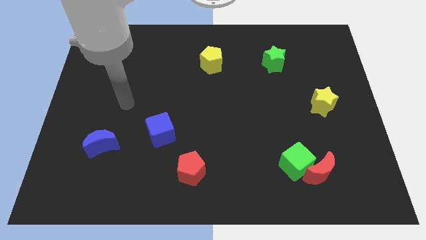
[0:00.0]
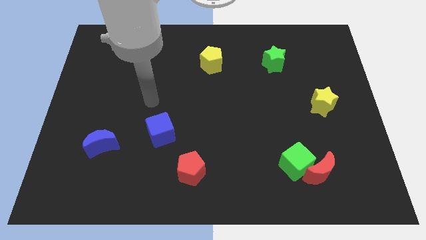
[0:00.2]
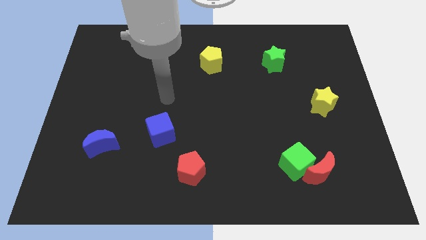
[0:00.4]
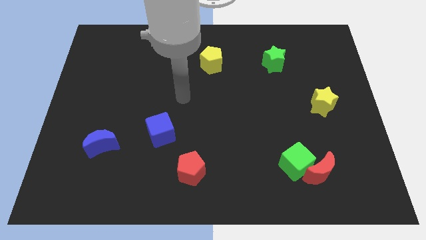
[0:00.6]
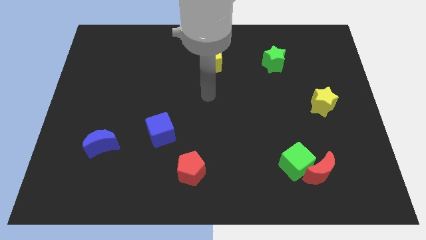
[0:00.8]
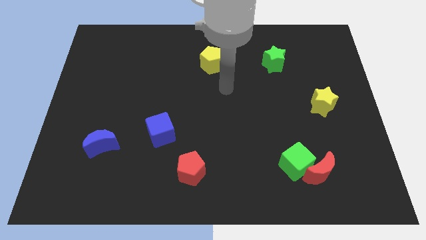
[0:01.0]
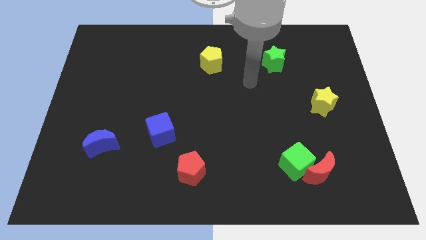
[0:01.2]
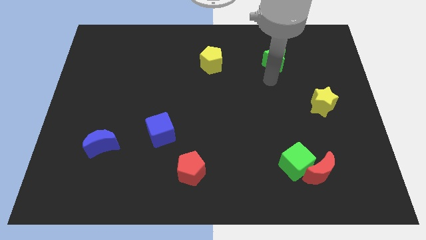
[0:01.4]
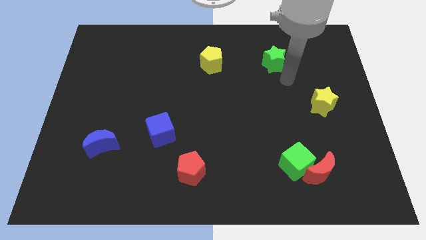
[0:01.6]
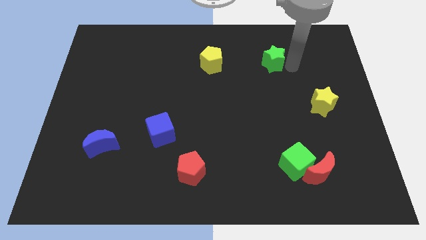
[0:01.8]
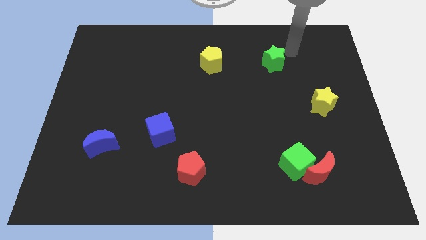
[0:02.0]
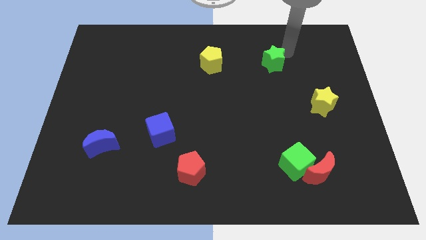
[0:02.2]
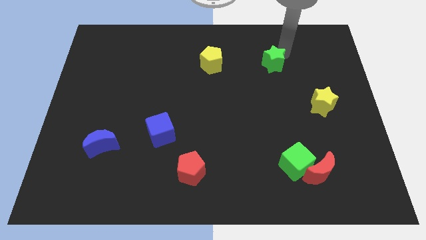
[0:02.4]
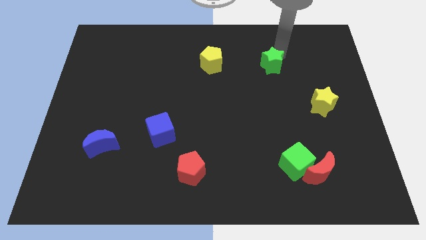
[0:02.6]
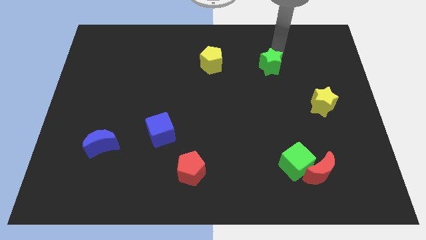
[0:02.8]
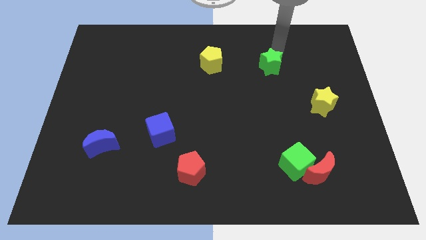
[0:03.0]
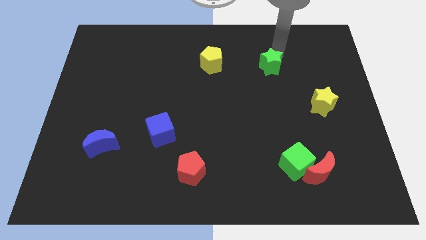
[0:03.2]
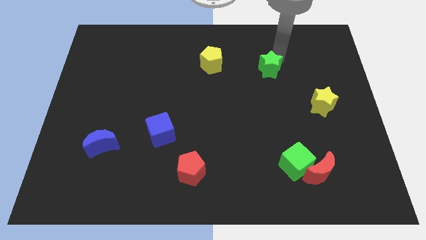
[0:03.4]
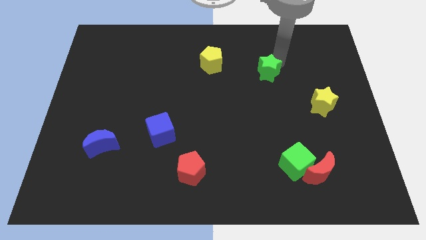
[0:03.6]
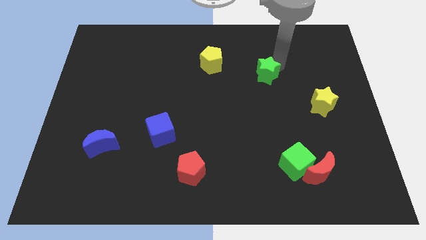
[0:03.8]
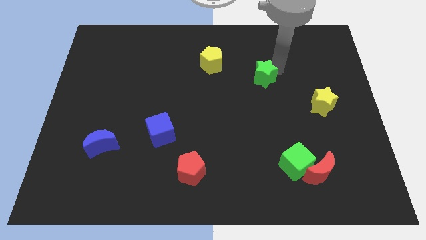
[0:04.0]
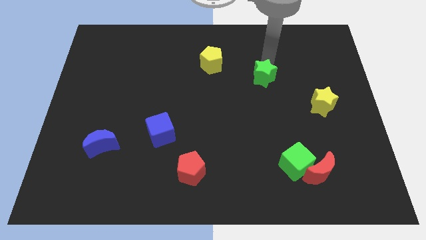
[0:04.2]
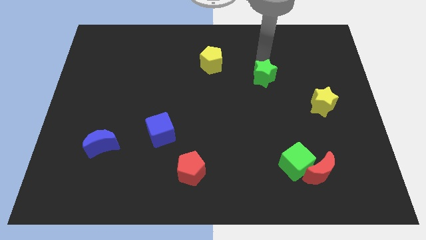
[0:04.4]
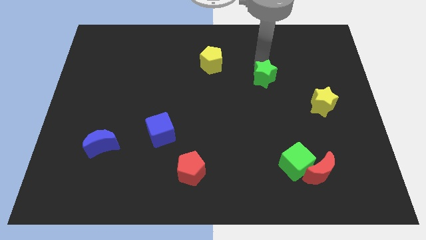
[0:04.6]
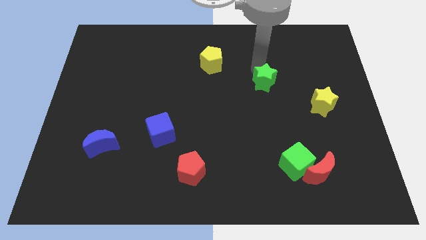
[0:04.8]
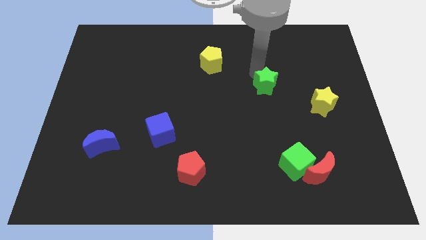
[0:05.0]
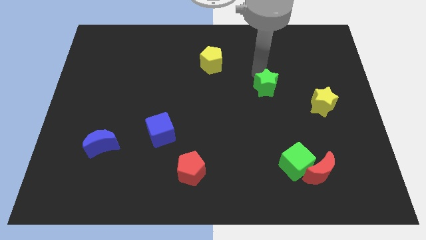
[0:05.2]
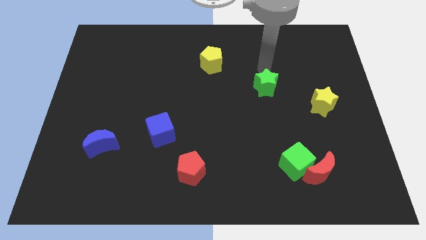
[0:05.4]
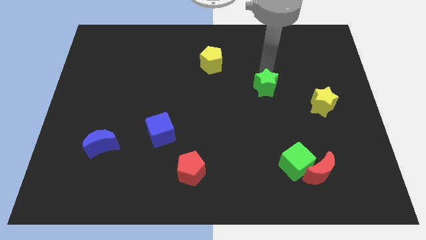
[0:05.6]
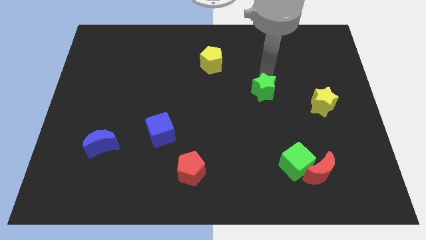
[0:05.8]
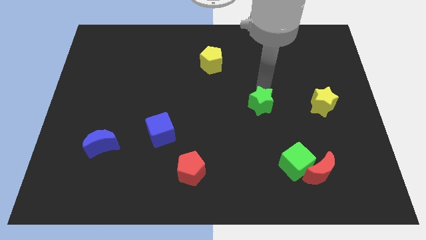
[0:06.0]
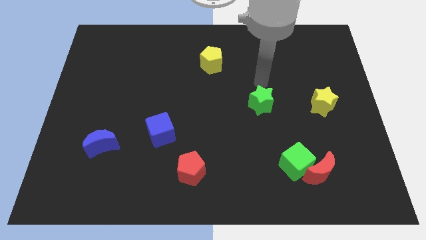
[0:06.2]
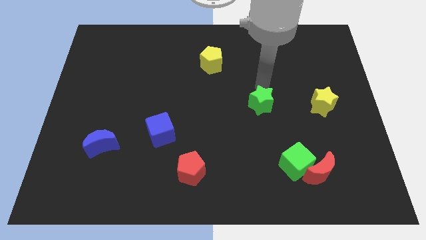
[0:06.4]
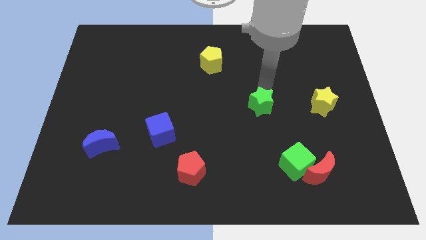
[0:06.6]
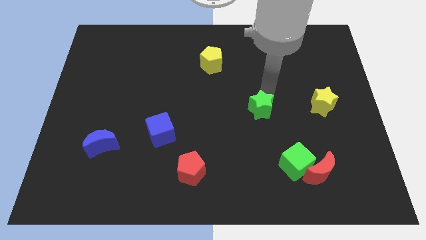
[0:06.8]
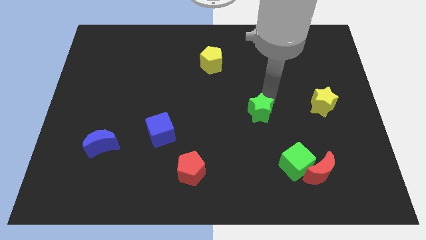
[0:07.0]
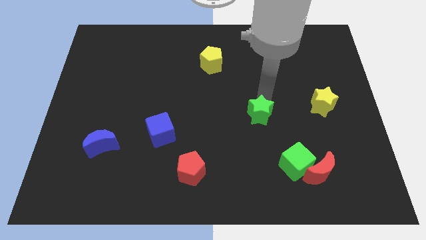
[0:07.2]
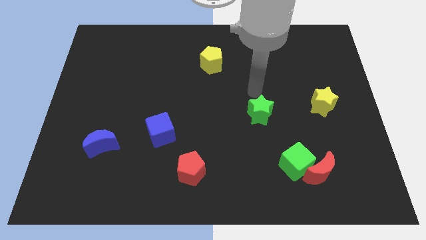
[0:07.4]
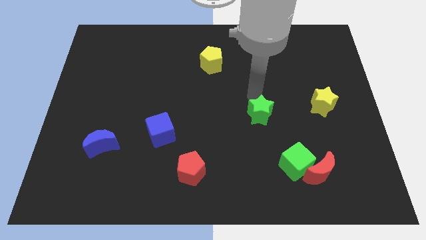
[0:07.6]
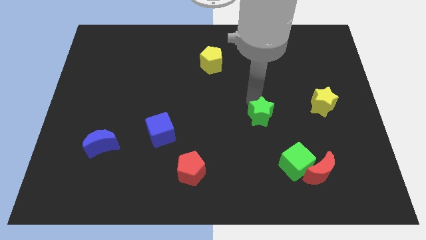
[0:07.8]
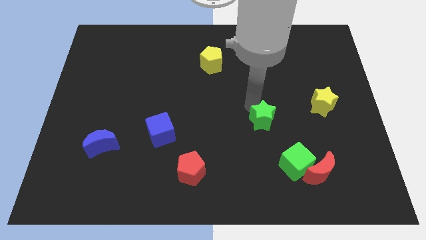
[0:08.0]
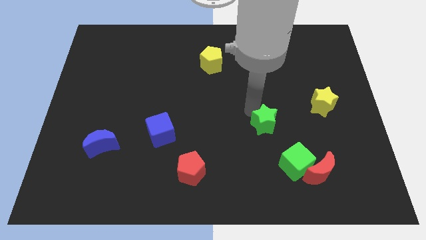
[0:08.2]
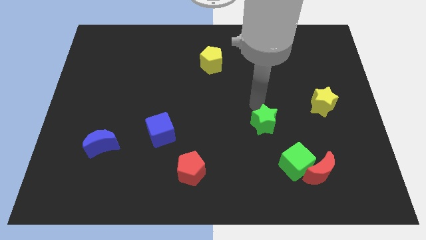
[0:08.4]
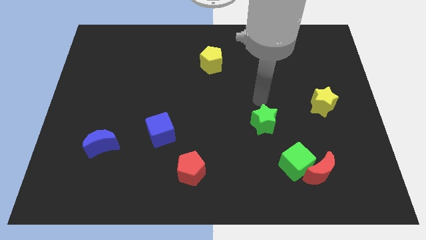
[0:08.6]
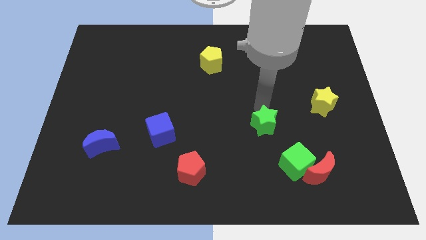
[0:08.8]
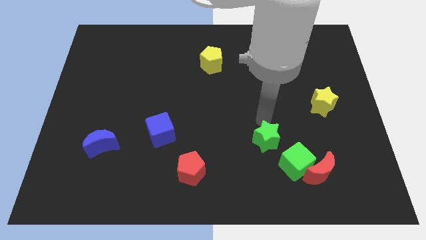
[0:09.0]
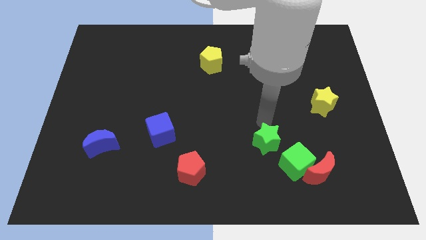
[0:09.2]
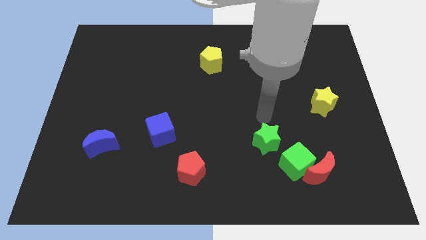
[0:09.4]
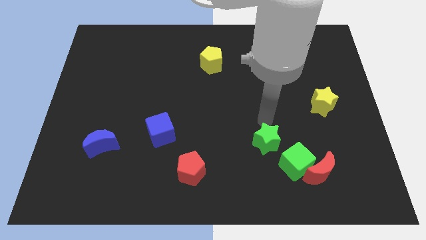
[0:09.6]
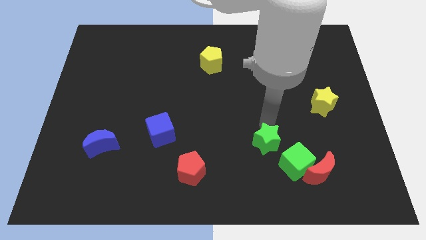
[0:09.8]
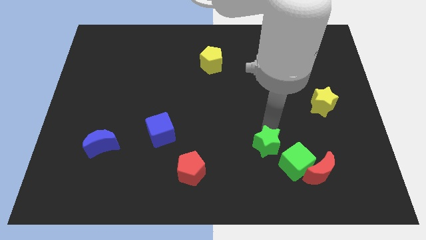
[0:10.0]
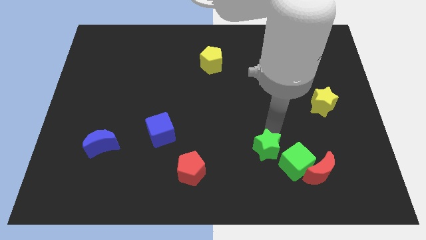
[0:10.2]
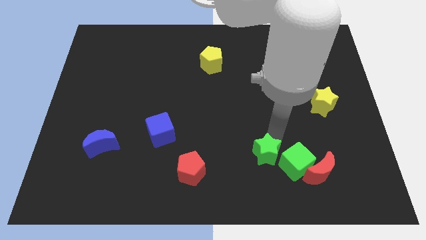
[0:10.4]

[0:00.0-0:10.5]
move the green star left of the red moon
